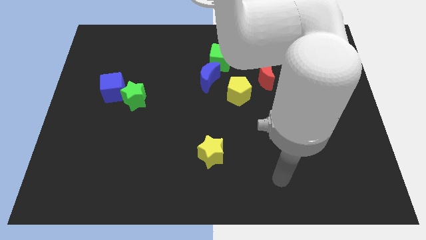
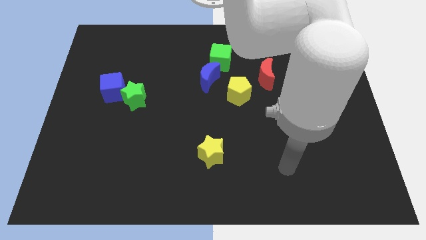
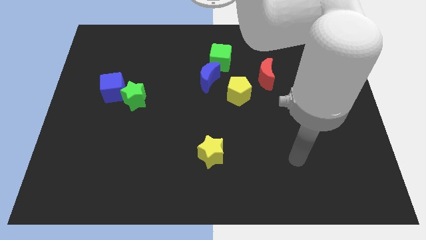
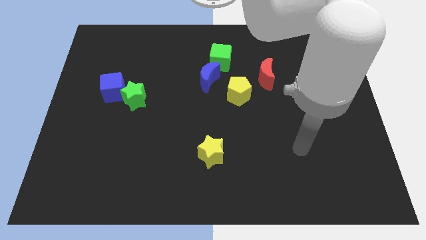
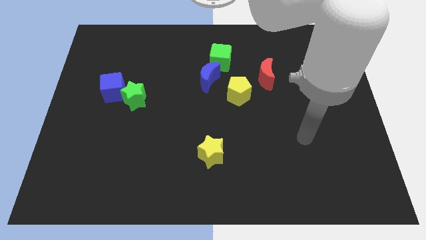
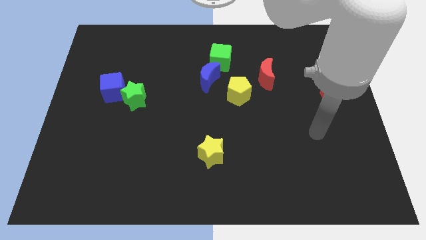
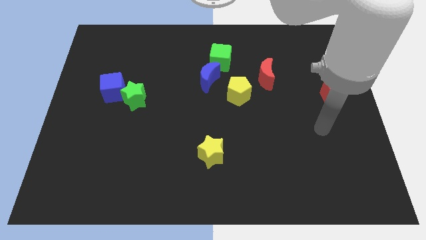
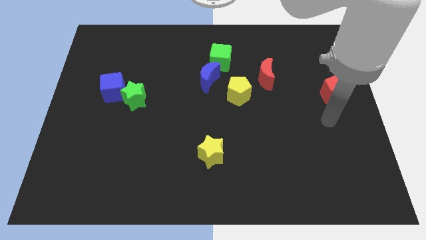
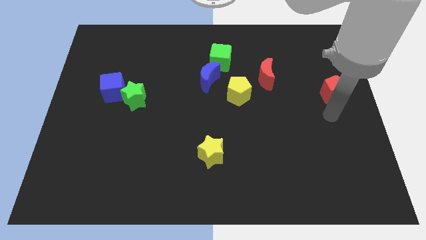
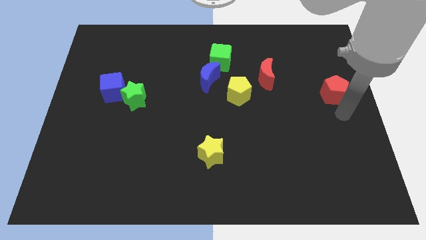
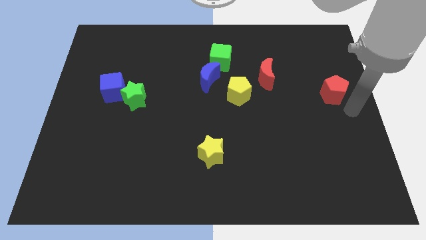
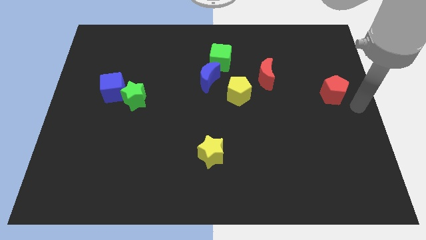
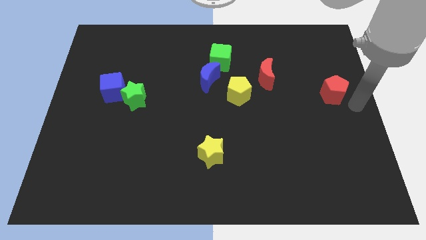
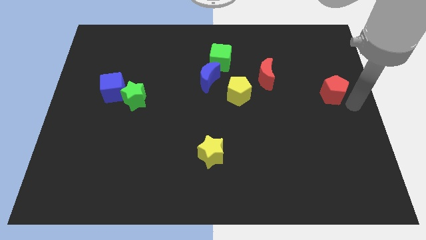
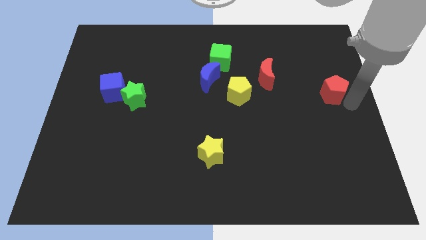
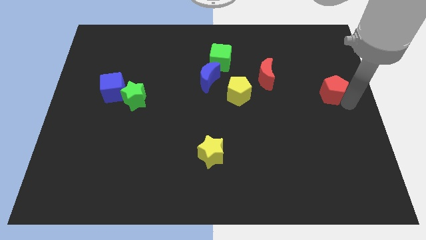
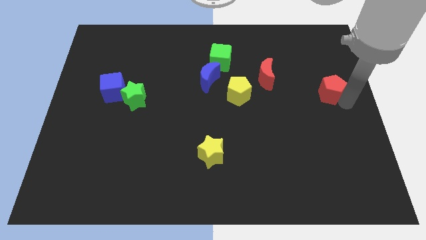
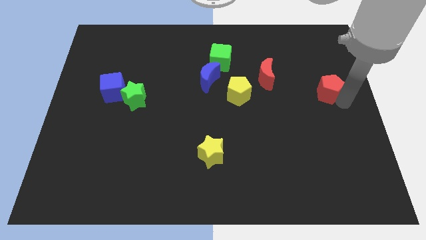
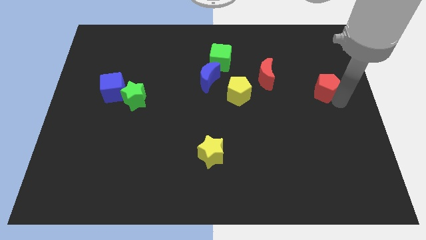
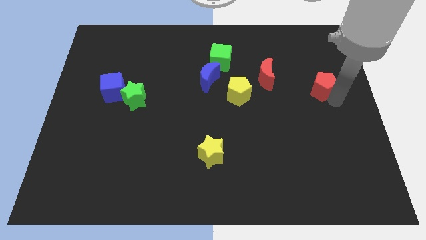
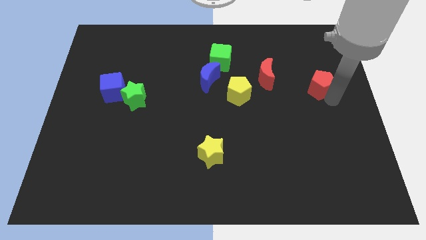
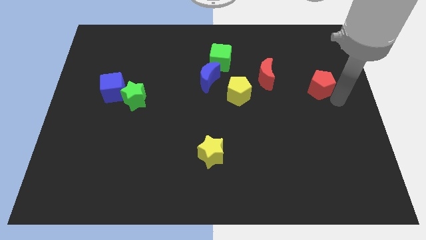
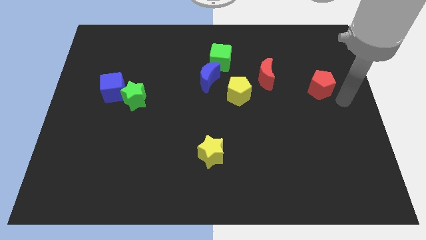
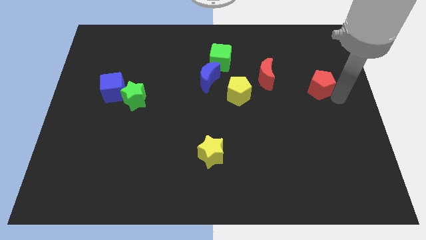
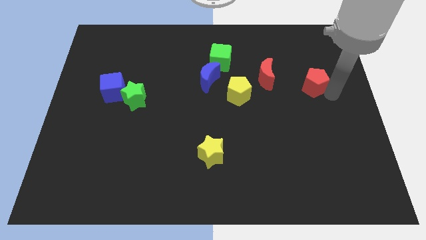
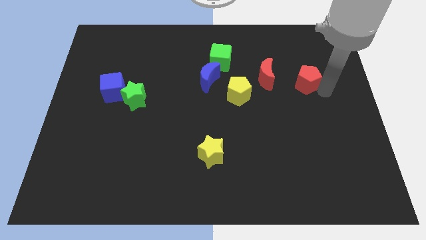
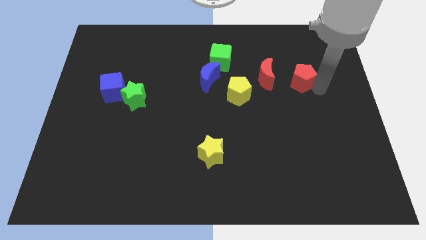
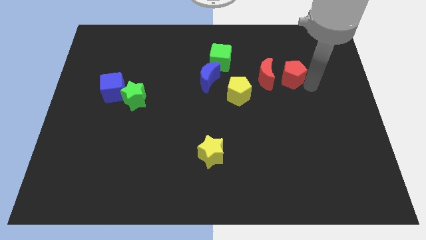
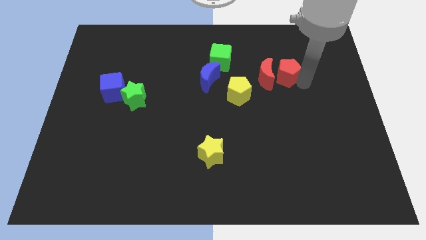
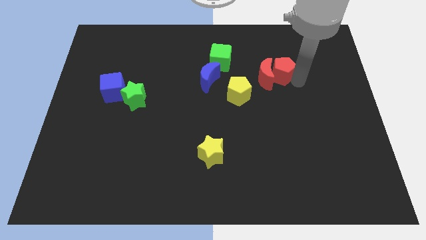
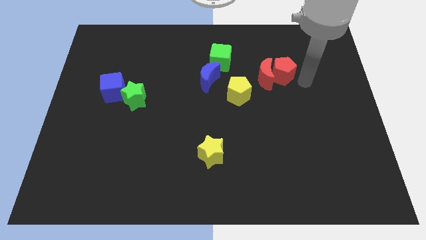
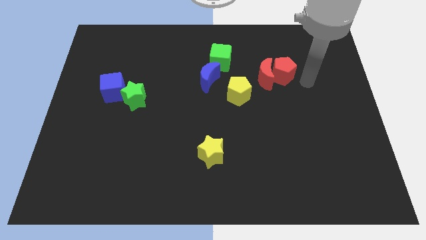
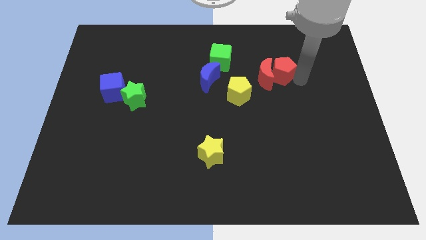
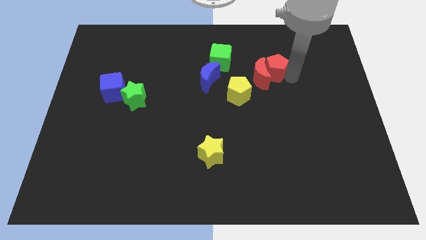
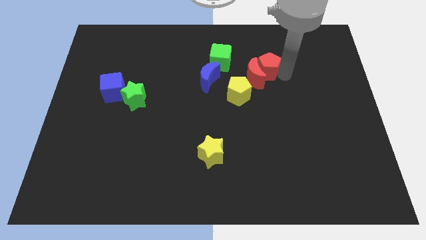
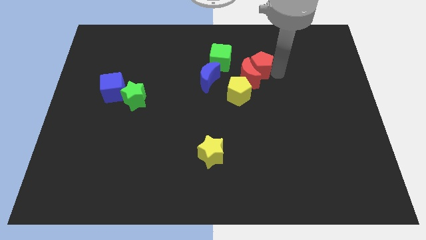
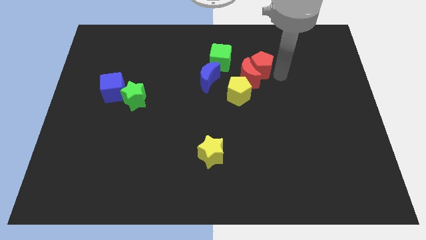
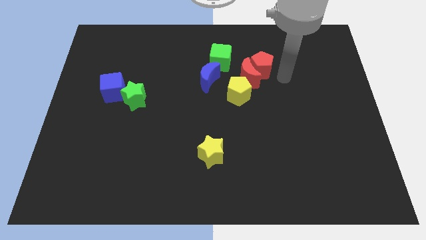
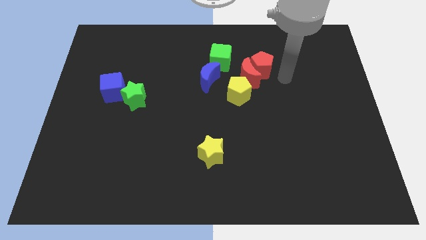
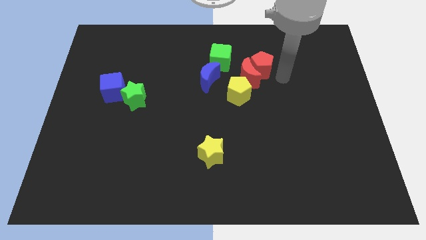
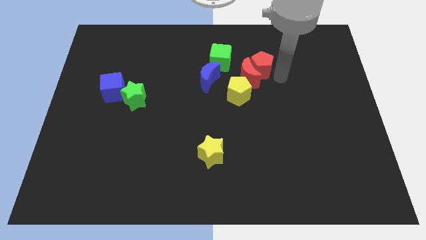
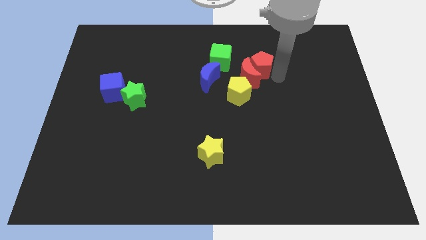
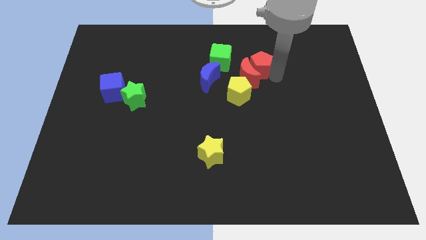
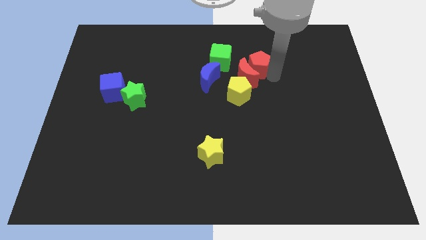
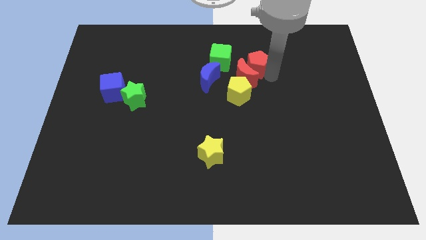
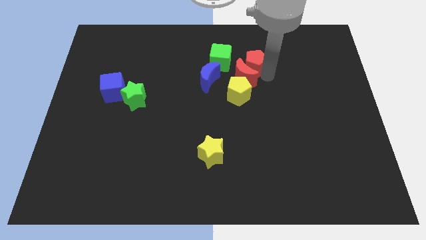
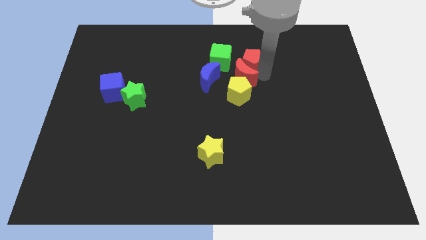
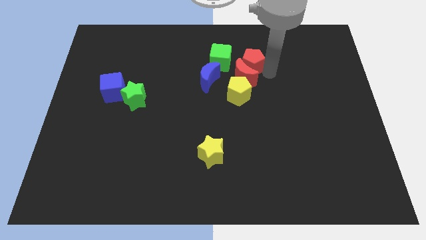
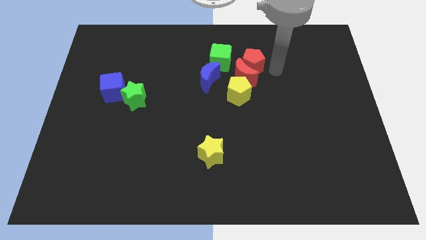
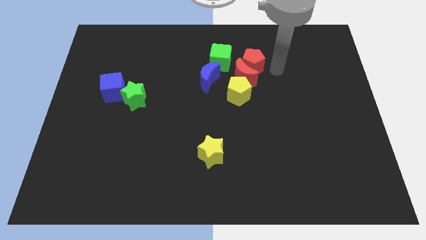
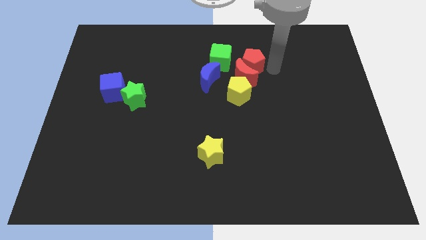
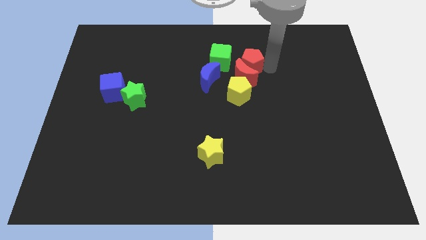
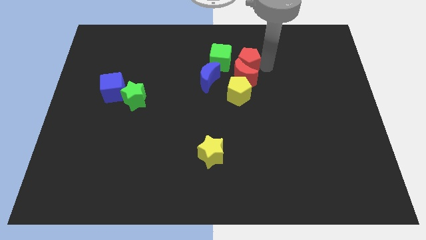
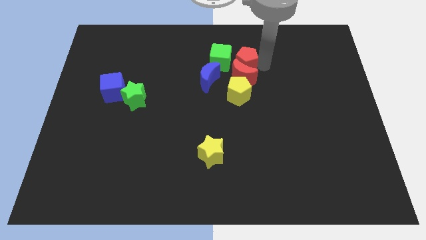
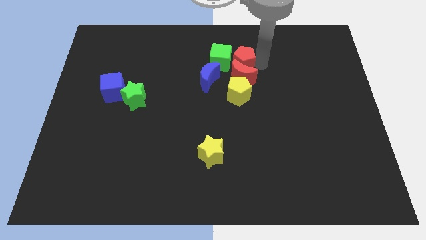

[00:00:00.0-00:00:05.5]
push the red pentagon towards the green cube

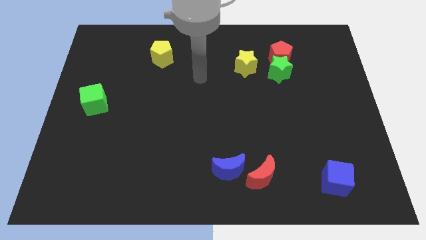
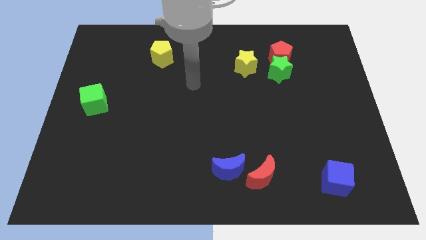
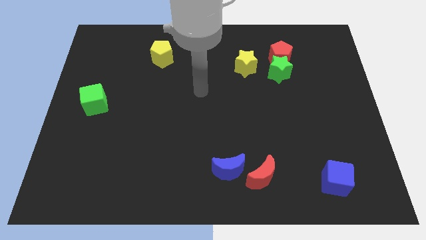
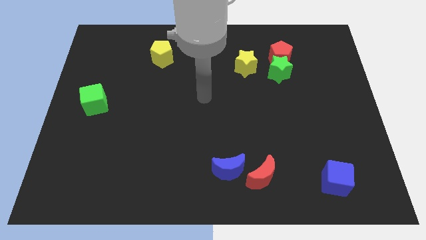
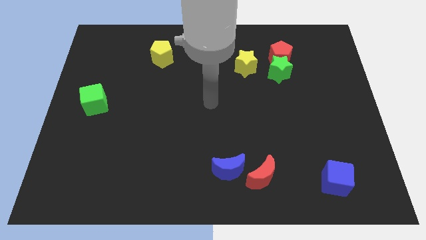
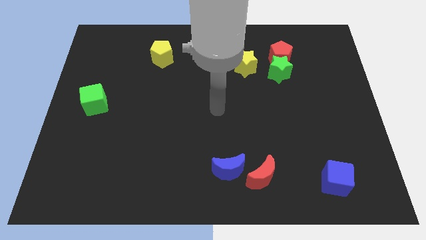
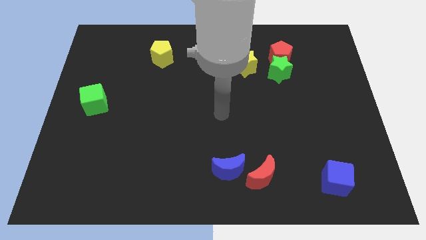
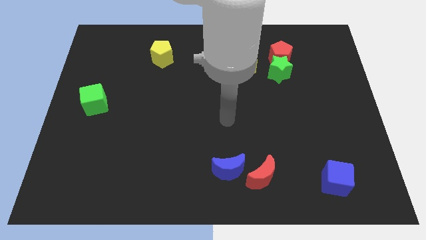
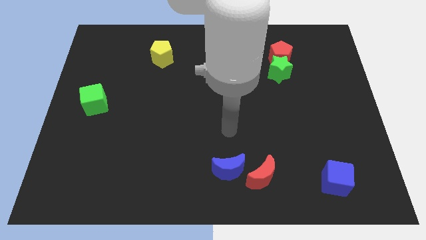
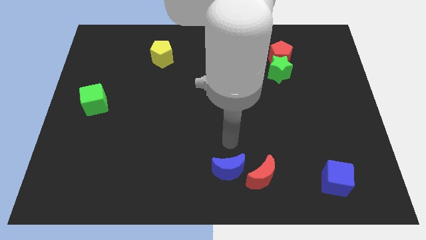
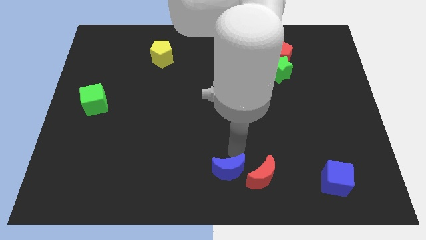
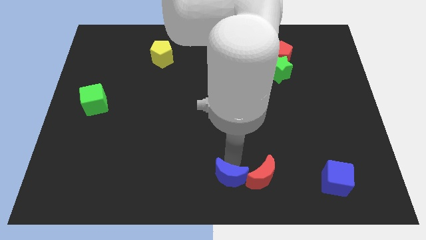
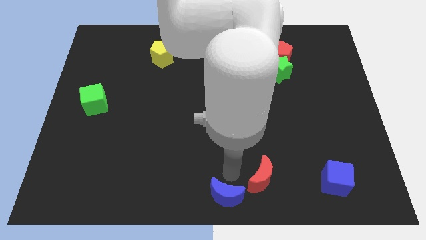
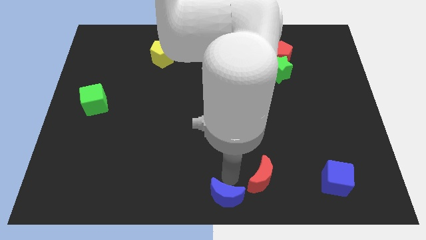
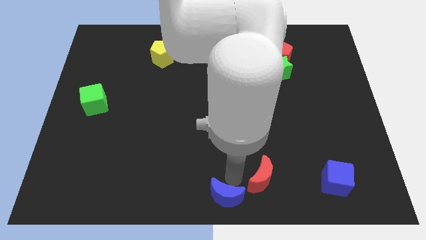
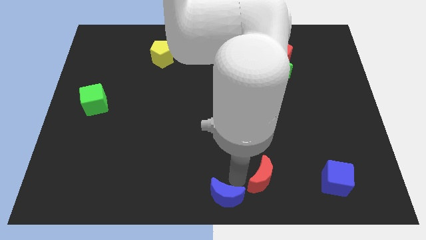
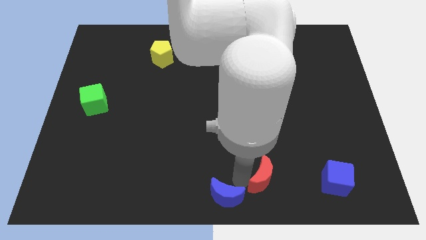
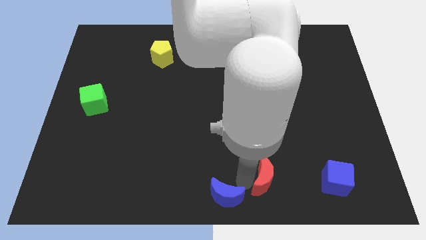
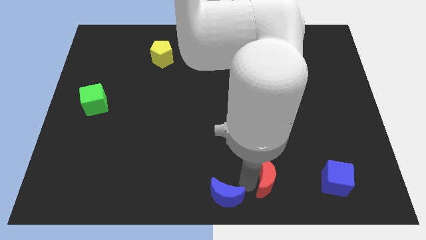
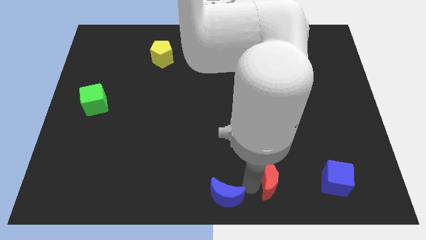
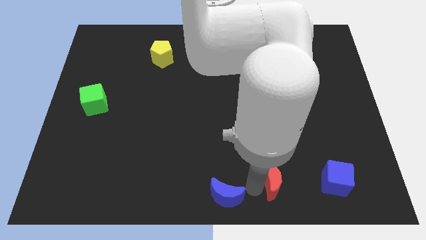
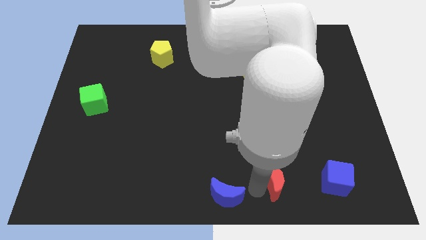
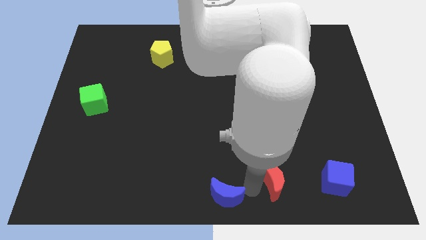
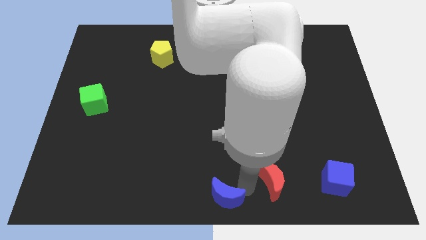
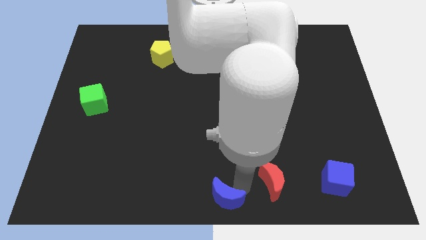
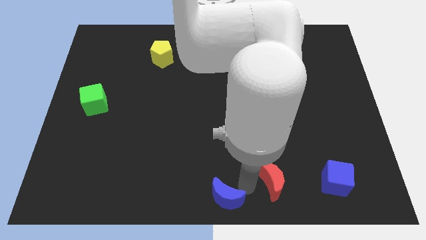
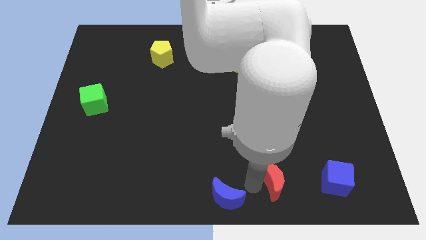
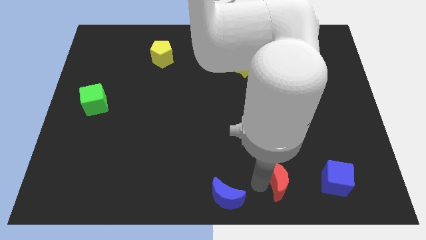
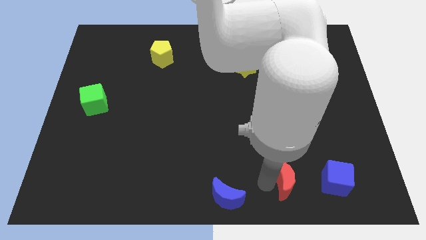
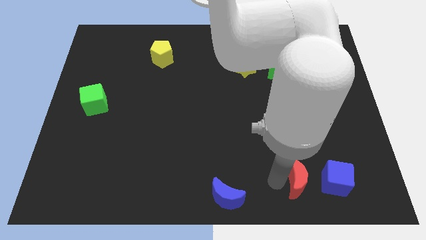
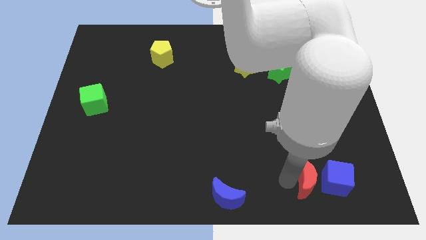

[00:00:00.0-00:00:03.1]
slide the red moon towards the blue cube
